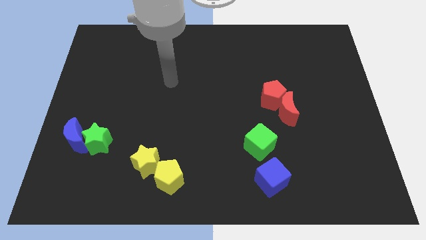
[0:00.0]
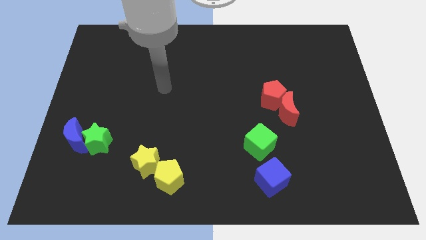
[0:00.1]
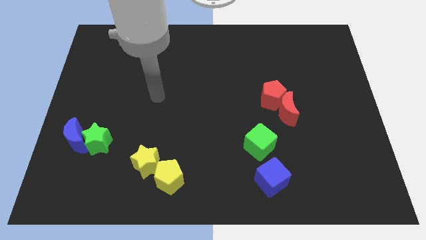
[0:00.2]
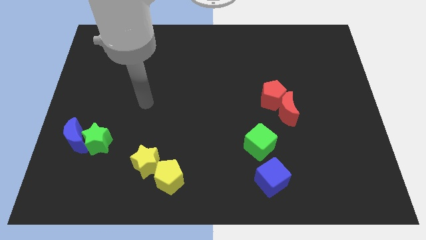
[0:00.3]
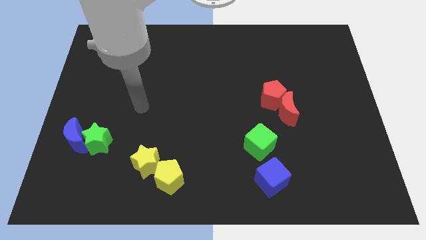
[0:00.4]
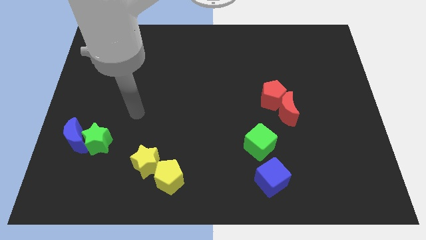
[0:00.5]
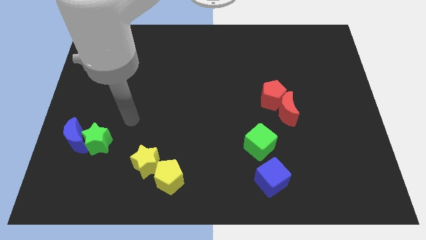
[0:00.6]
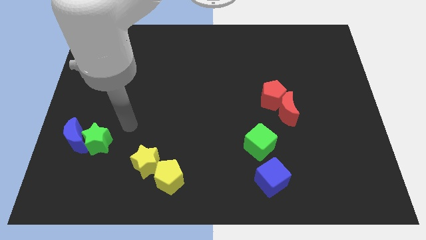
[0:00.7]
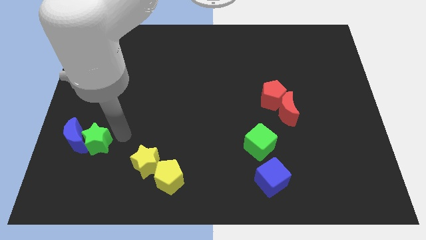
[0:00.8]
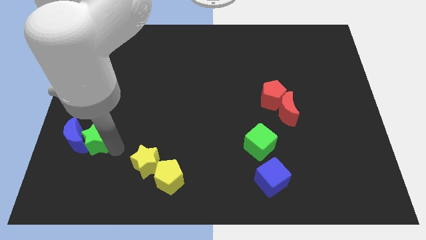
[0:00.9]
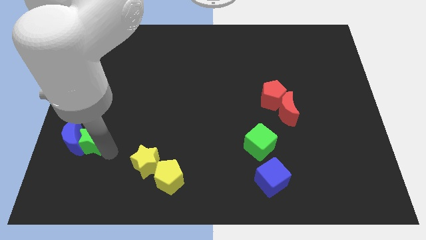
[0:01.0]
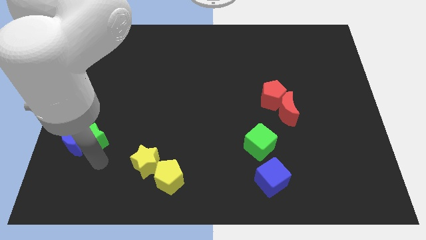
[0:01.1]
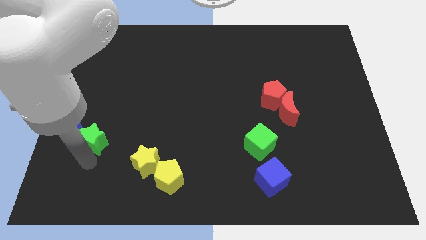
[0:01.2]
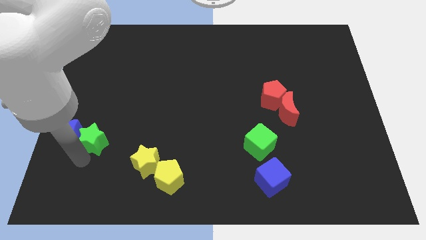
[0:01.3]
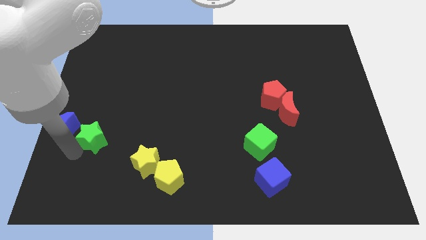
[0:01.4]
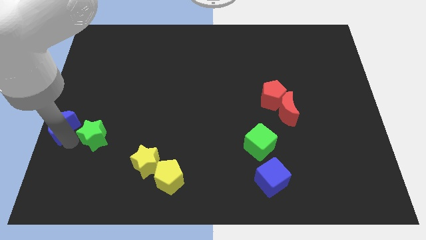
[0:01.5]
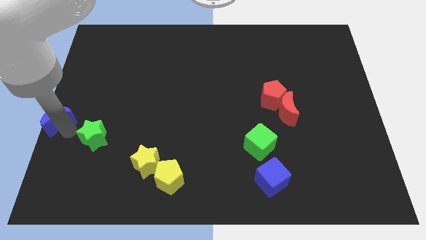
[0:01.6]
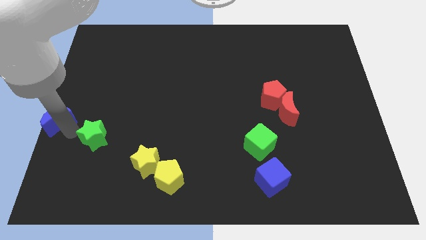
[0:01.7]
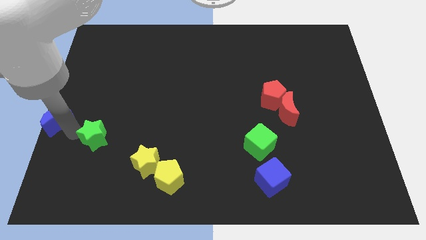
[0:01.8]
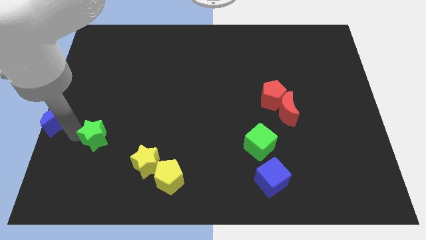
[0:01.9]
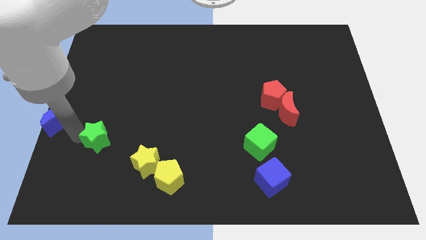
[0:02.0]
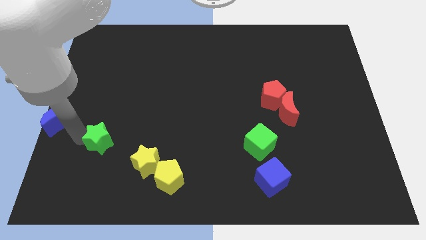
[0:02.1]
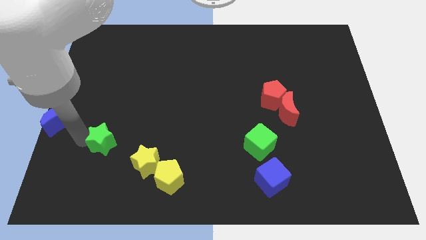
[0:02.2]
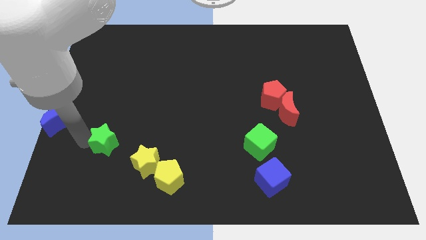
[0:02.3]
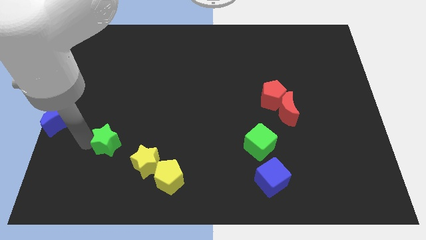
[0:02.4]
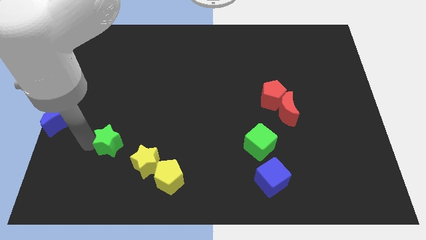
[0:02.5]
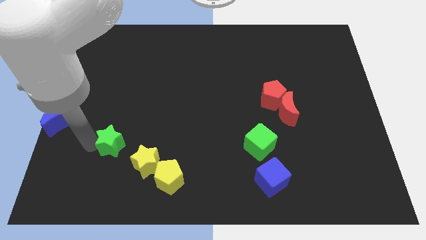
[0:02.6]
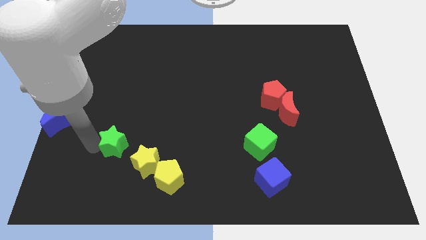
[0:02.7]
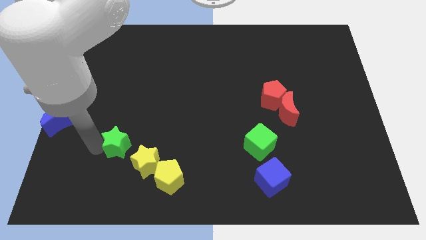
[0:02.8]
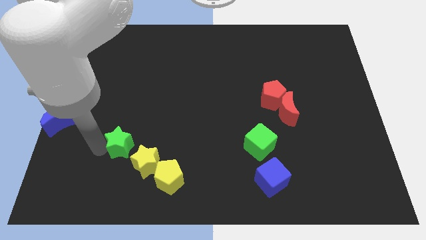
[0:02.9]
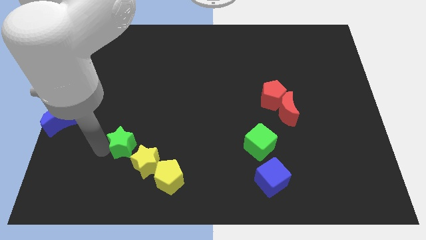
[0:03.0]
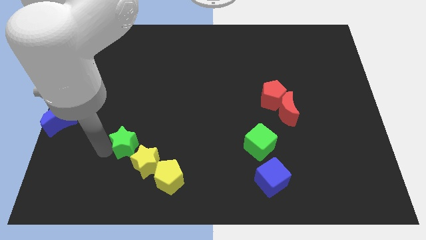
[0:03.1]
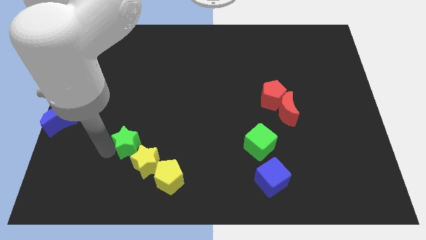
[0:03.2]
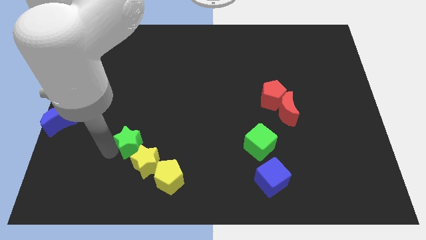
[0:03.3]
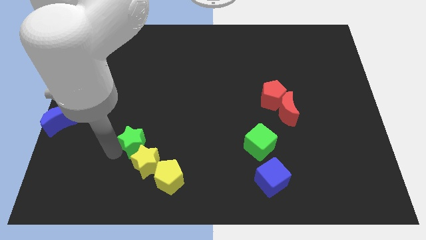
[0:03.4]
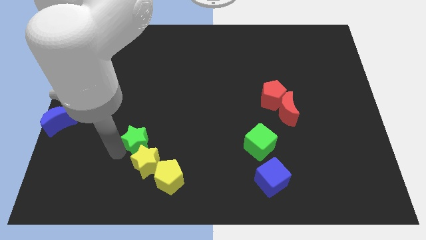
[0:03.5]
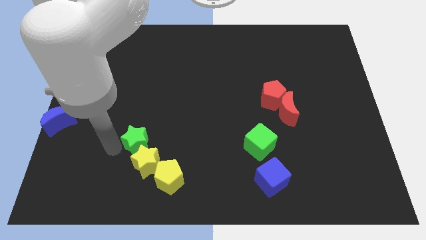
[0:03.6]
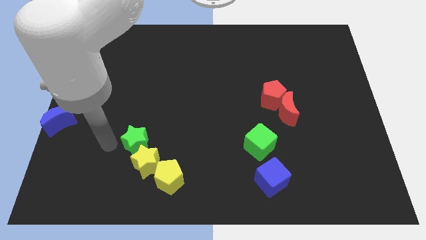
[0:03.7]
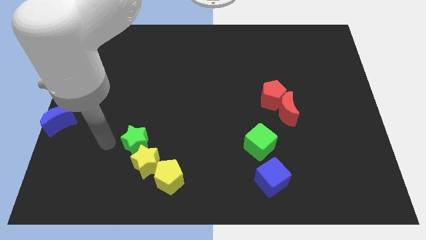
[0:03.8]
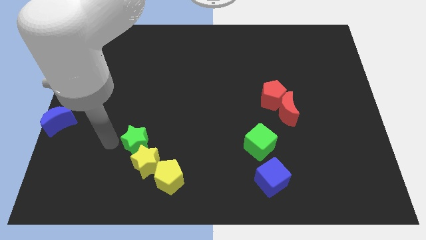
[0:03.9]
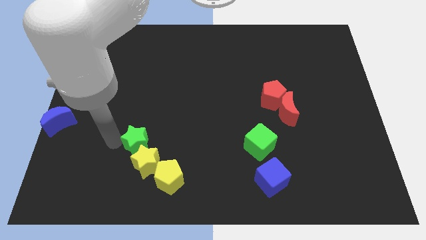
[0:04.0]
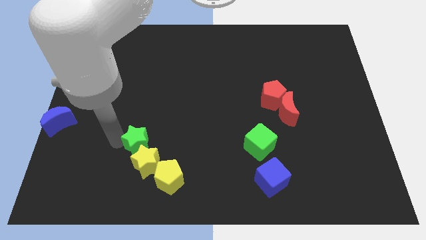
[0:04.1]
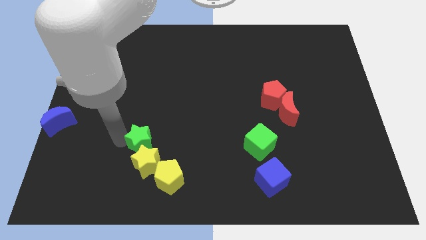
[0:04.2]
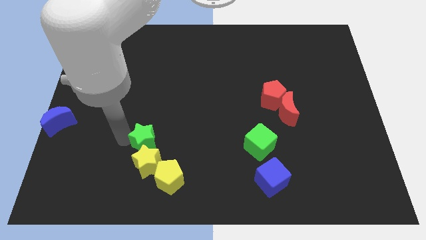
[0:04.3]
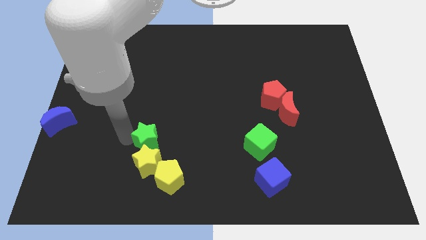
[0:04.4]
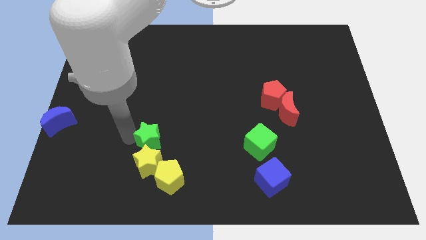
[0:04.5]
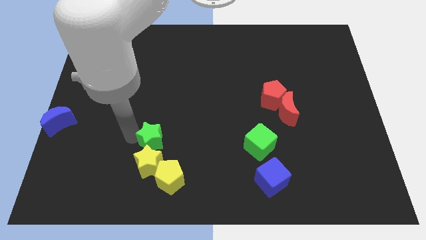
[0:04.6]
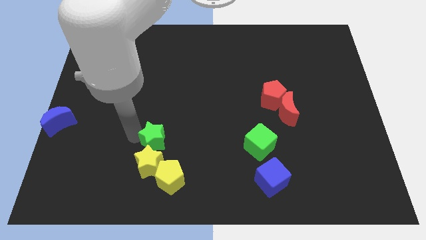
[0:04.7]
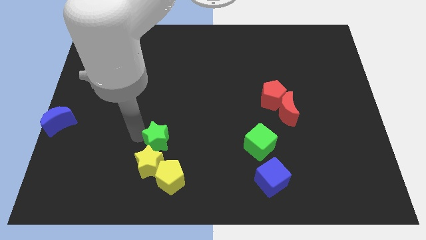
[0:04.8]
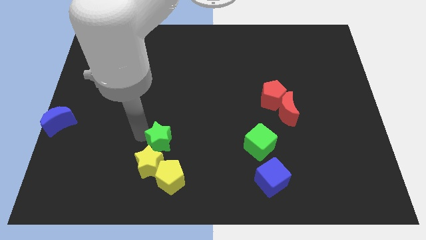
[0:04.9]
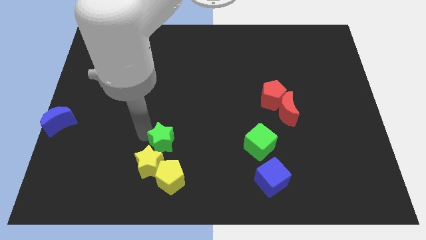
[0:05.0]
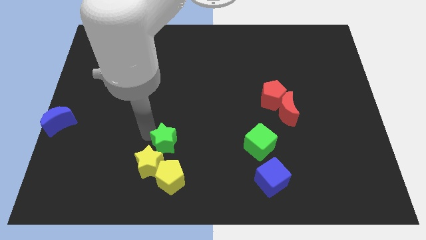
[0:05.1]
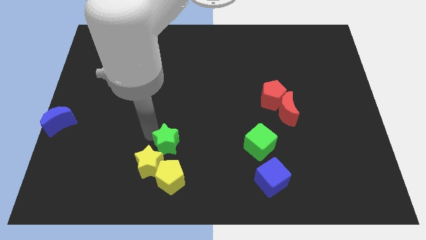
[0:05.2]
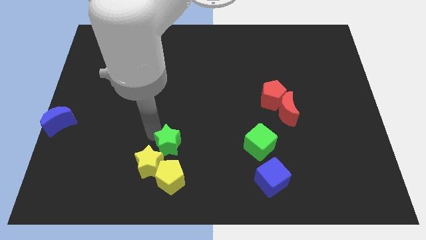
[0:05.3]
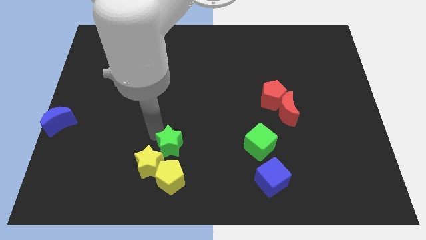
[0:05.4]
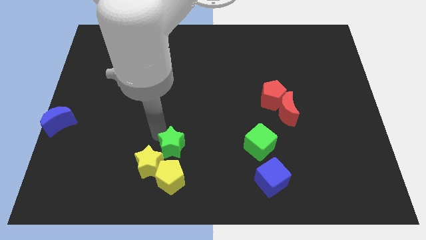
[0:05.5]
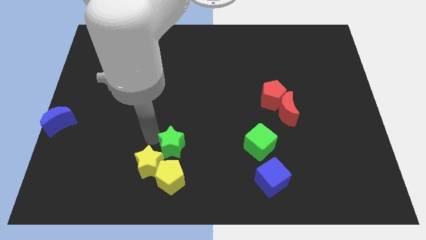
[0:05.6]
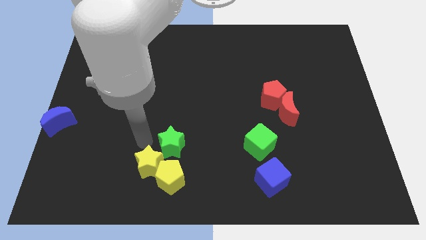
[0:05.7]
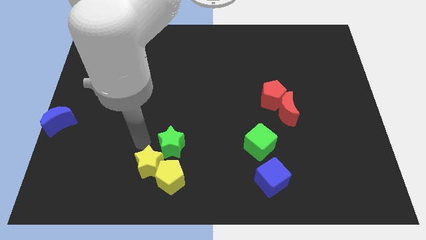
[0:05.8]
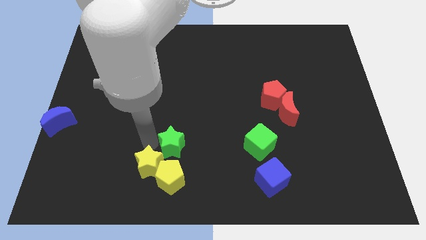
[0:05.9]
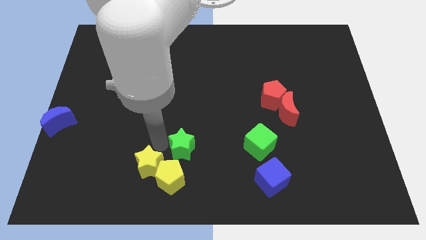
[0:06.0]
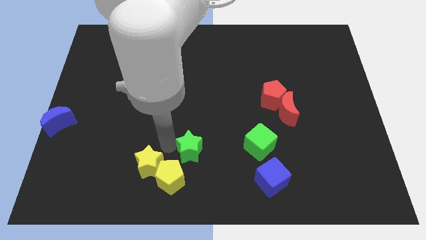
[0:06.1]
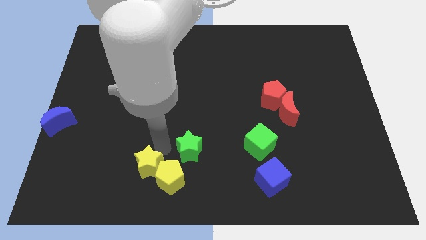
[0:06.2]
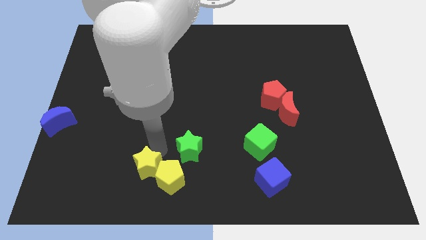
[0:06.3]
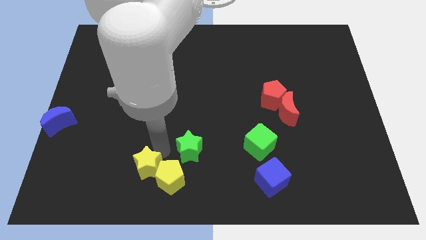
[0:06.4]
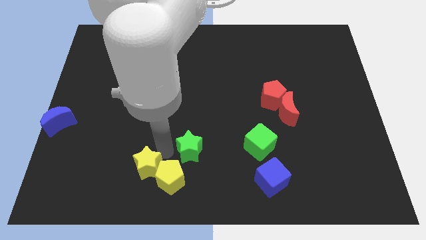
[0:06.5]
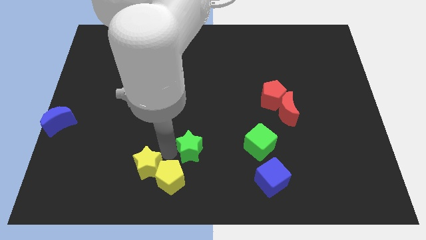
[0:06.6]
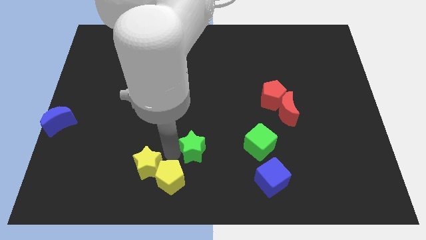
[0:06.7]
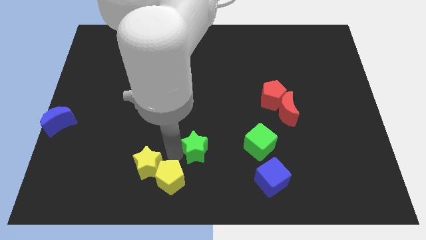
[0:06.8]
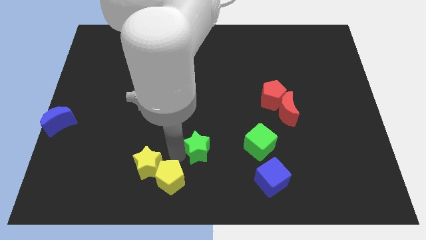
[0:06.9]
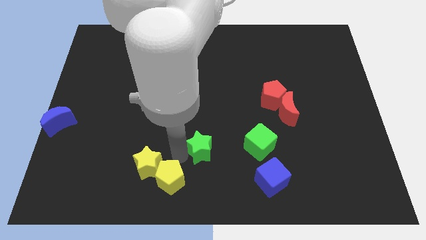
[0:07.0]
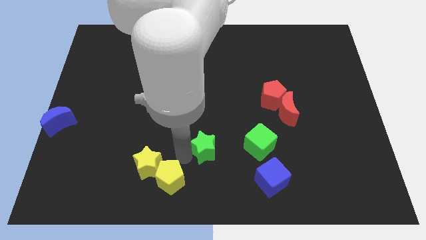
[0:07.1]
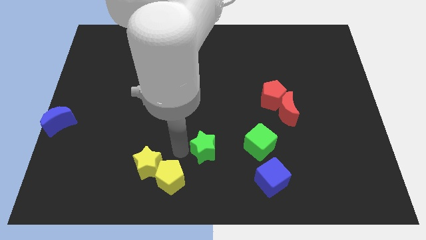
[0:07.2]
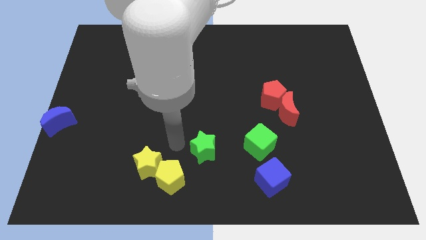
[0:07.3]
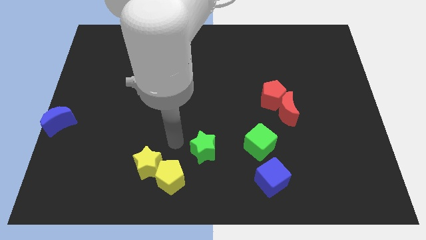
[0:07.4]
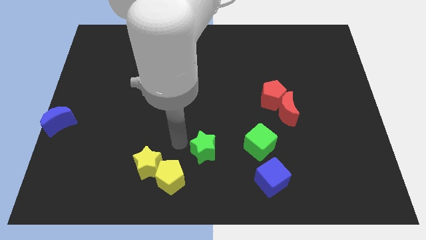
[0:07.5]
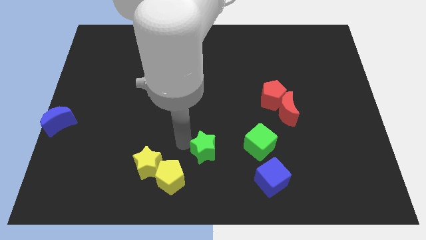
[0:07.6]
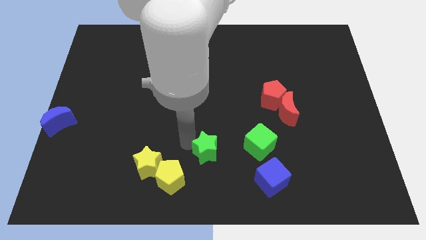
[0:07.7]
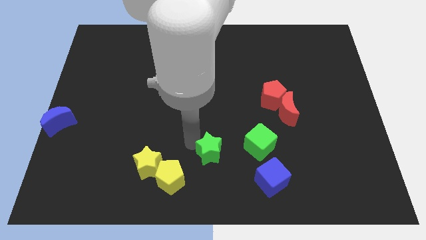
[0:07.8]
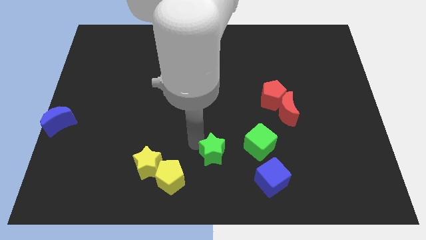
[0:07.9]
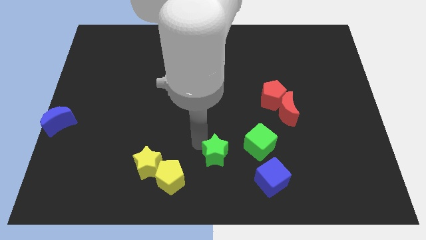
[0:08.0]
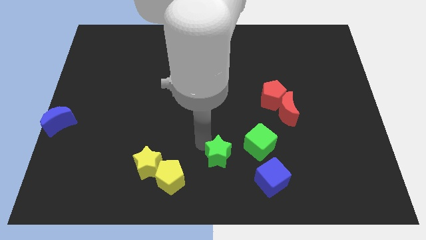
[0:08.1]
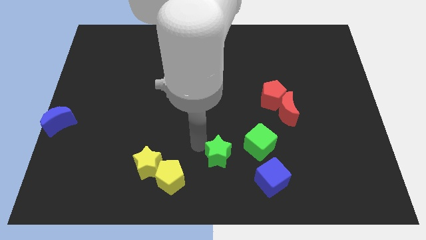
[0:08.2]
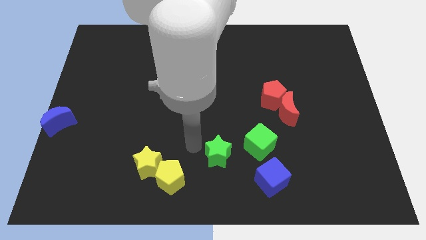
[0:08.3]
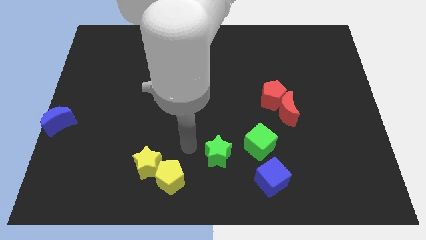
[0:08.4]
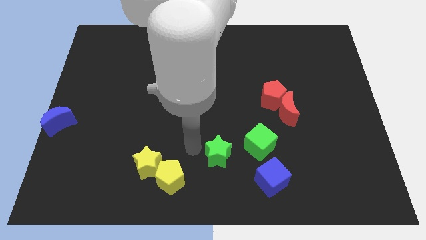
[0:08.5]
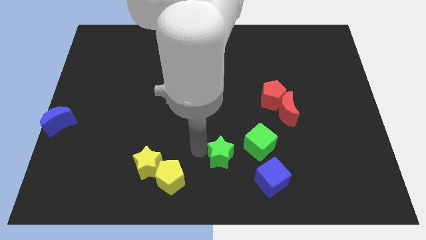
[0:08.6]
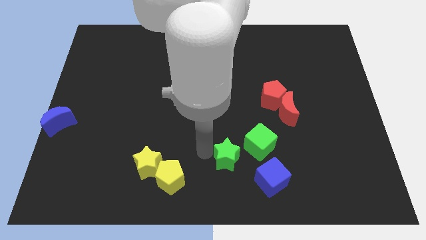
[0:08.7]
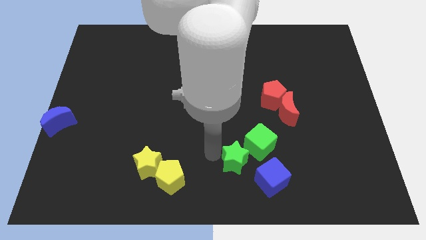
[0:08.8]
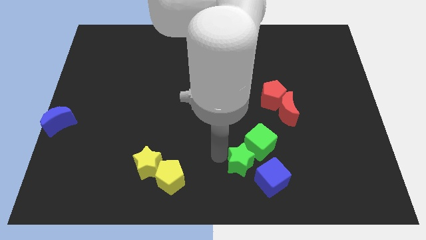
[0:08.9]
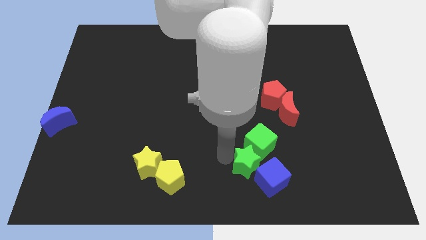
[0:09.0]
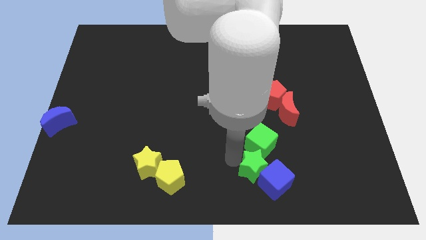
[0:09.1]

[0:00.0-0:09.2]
move the green star close to the blue cube
